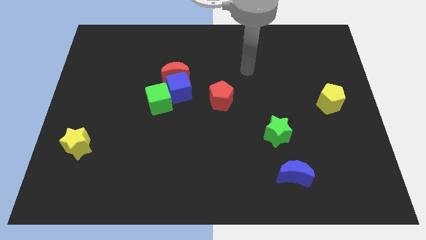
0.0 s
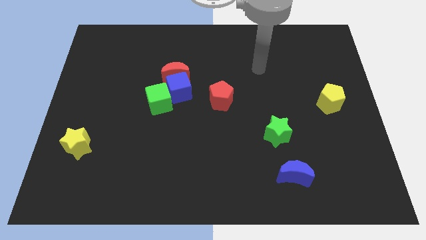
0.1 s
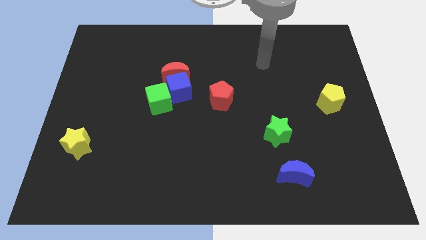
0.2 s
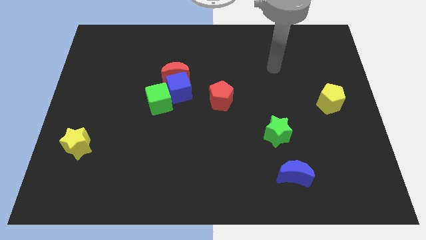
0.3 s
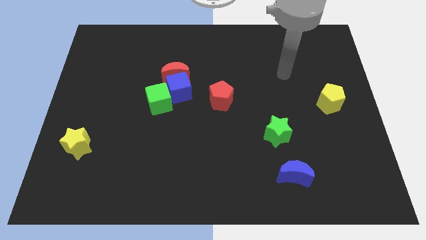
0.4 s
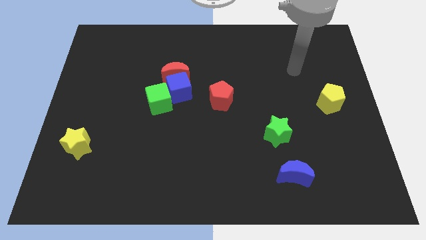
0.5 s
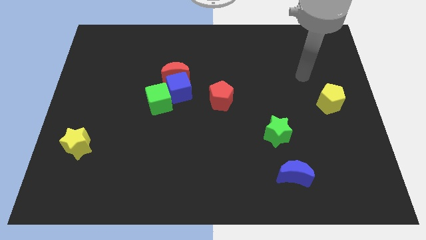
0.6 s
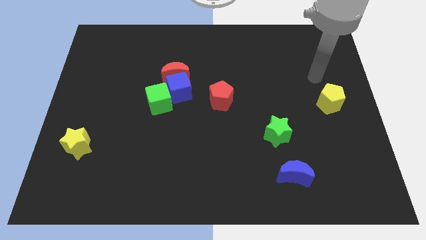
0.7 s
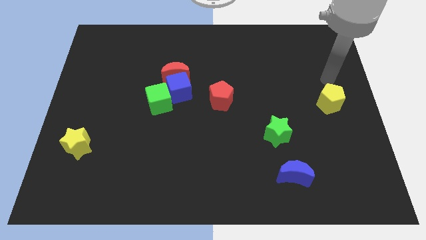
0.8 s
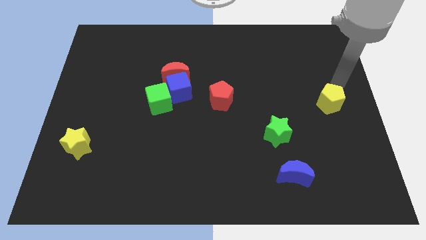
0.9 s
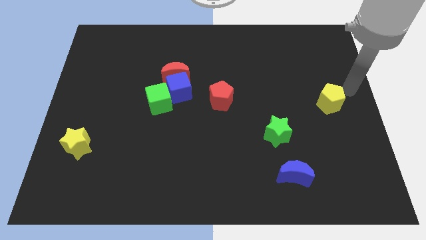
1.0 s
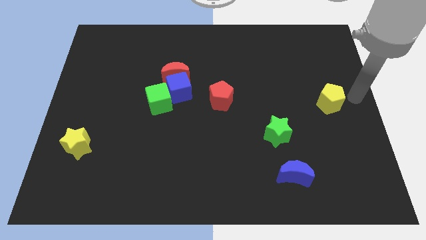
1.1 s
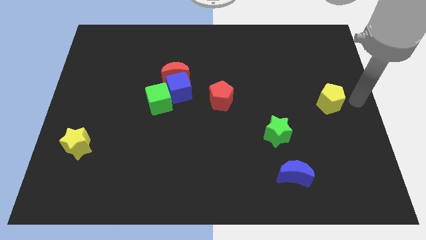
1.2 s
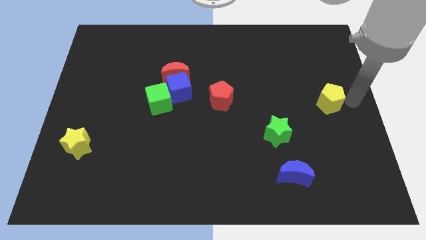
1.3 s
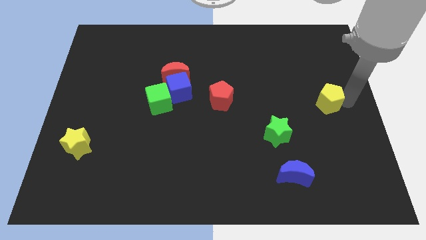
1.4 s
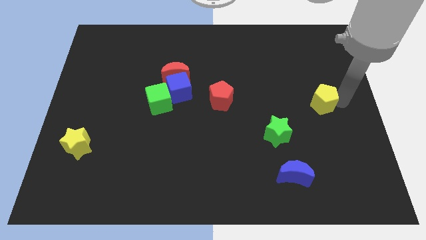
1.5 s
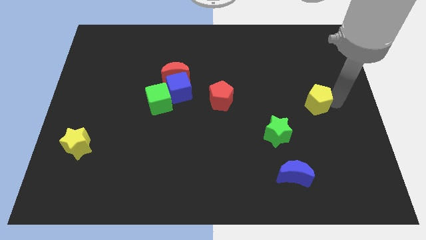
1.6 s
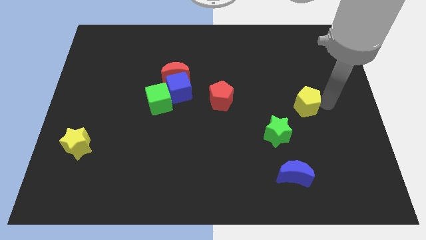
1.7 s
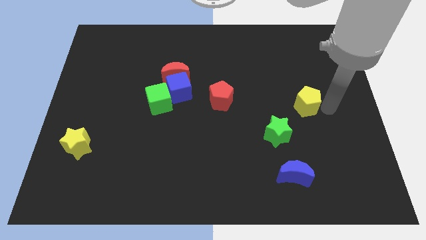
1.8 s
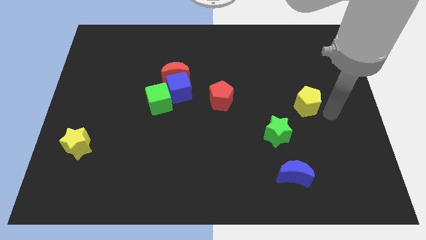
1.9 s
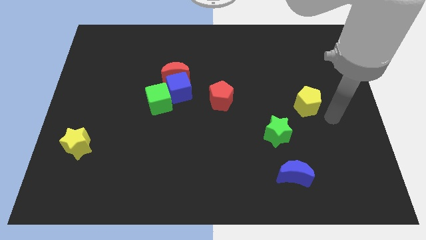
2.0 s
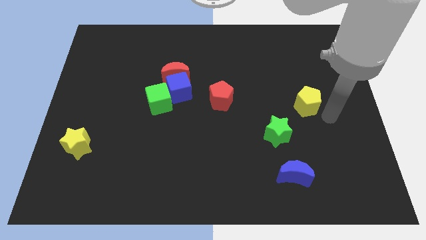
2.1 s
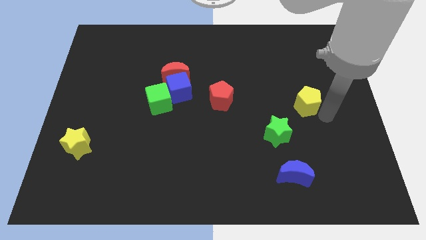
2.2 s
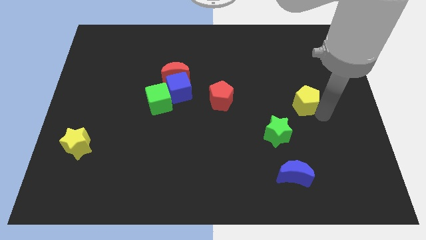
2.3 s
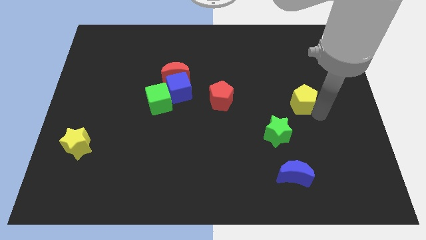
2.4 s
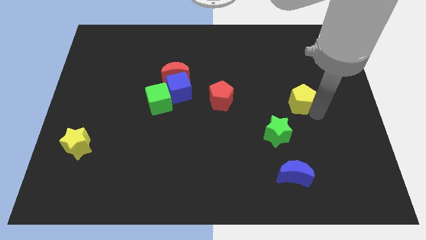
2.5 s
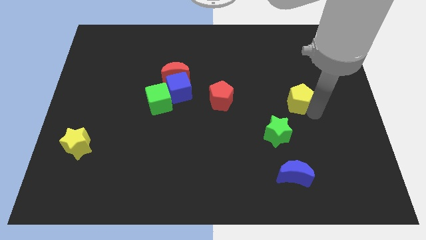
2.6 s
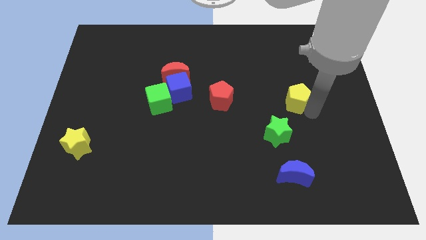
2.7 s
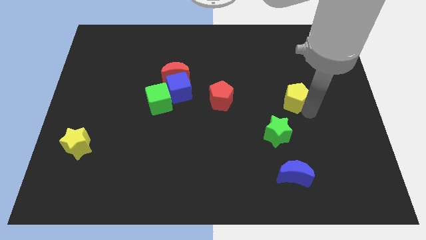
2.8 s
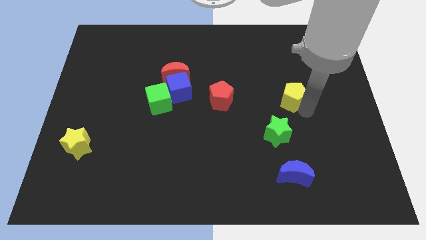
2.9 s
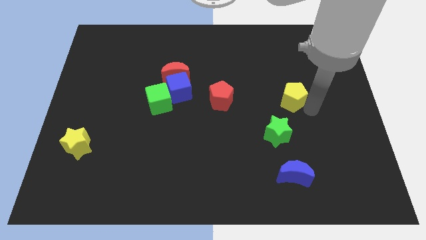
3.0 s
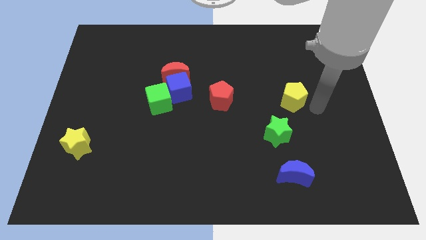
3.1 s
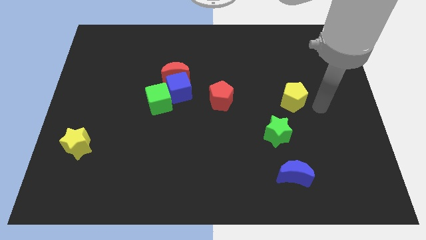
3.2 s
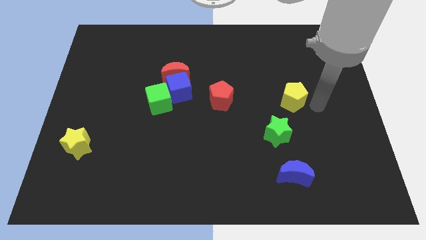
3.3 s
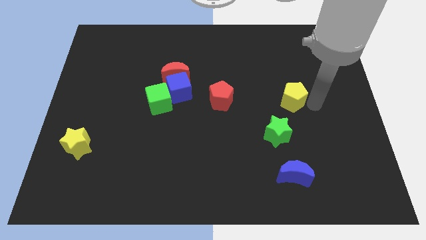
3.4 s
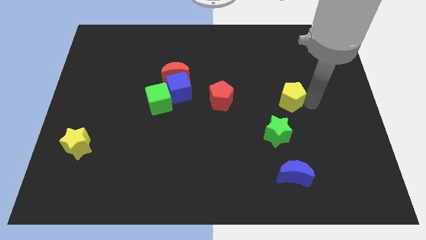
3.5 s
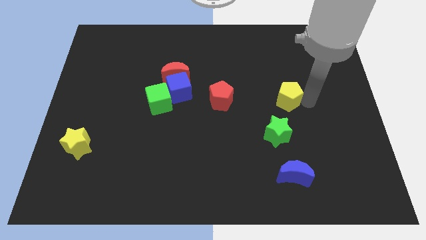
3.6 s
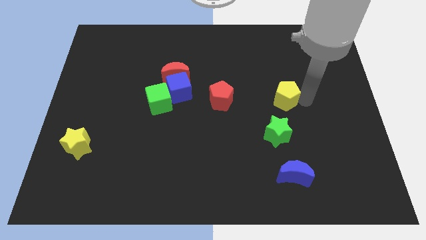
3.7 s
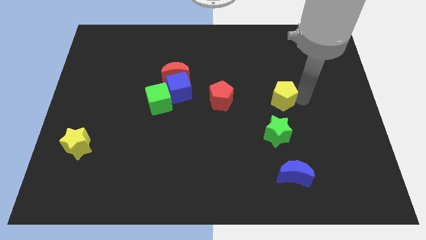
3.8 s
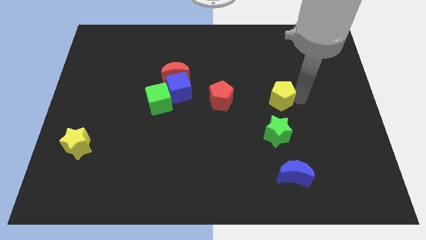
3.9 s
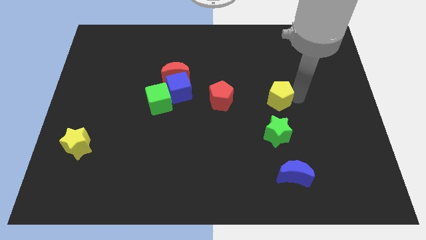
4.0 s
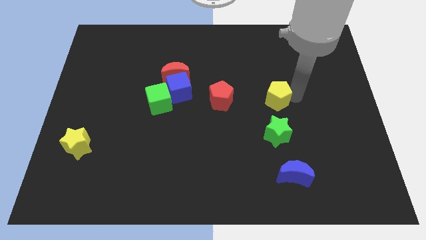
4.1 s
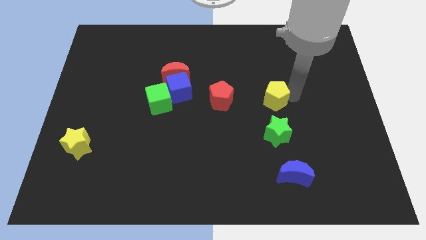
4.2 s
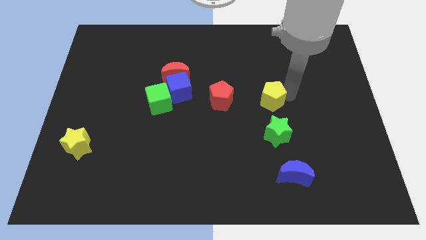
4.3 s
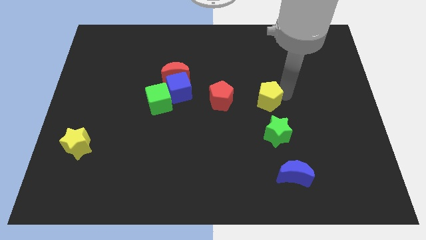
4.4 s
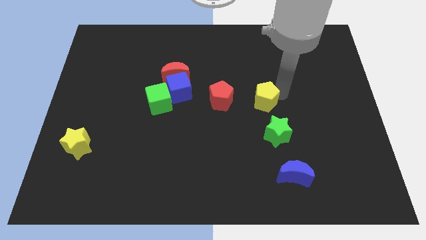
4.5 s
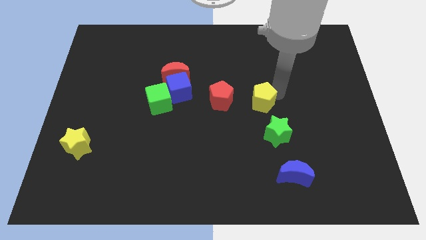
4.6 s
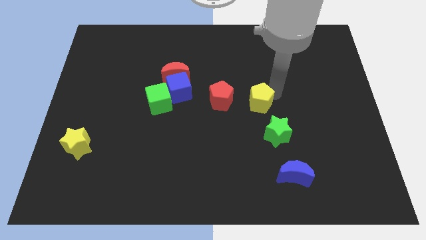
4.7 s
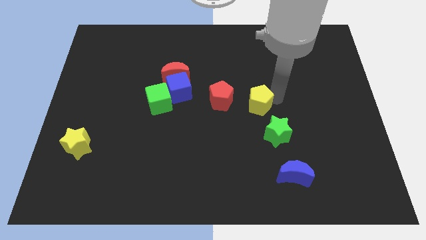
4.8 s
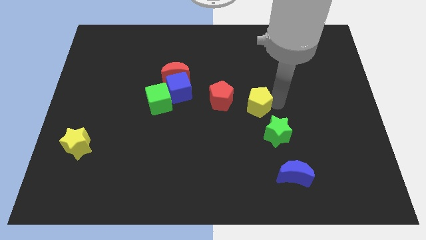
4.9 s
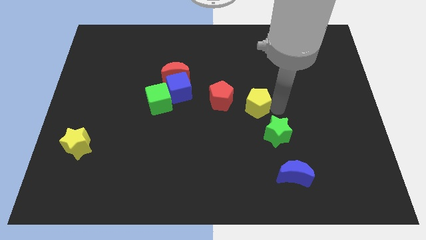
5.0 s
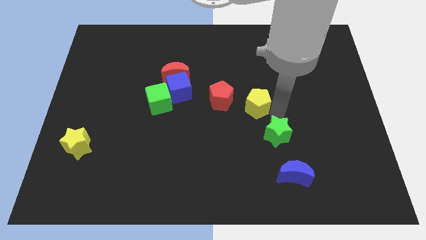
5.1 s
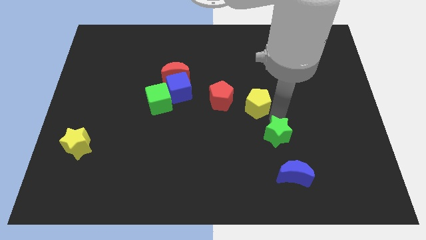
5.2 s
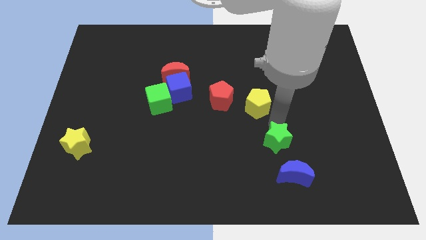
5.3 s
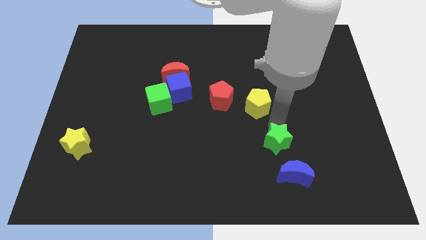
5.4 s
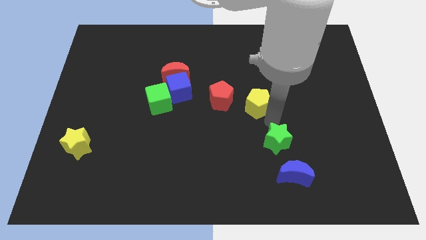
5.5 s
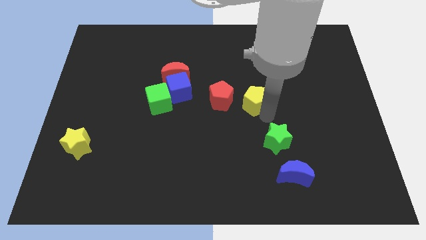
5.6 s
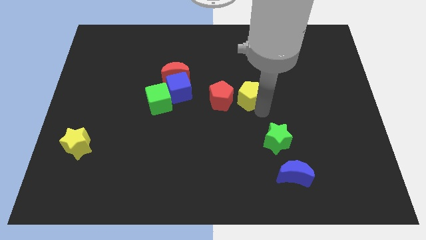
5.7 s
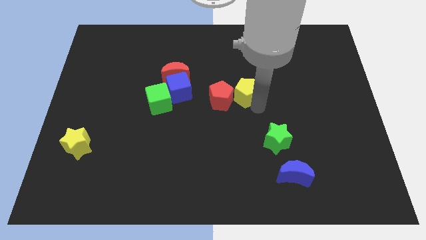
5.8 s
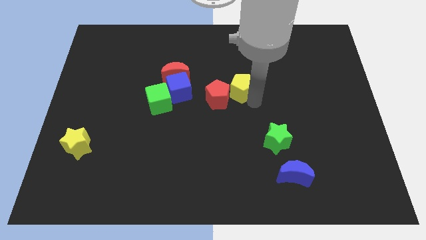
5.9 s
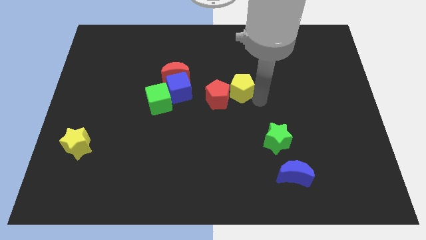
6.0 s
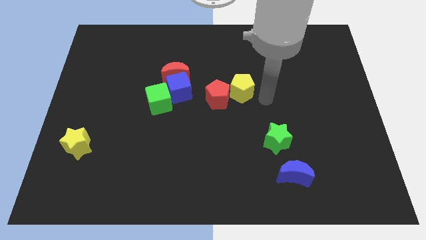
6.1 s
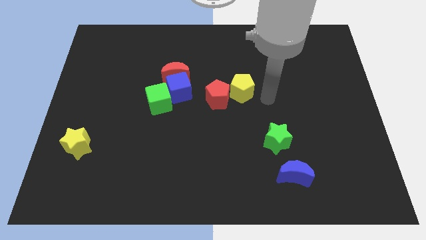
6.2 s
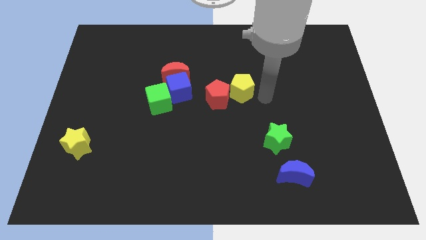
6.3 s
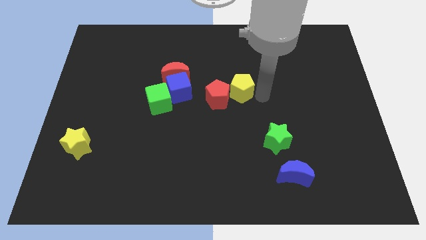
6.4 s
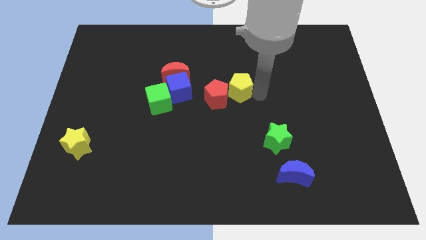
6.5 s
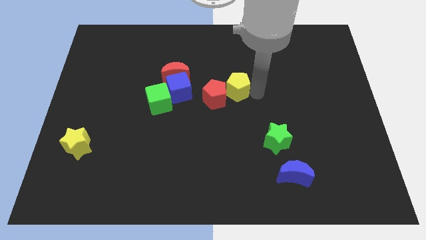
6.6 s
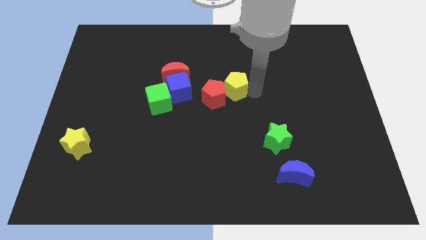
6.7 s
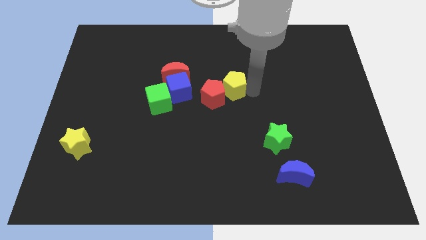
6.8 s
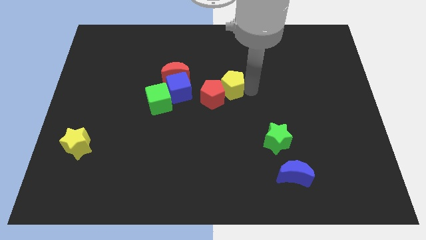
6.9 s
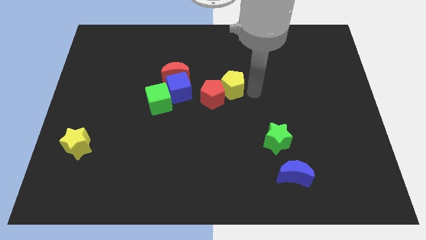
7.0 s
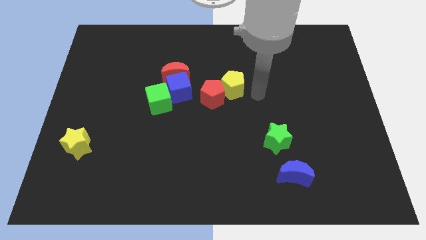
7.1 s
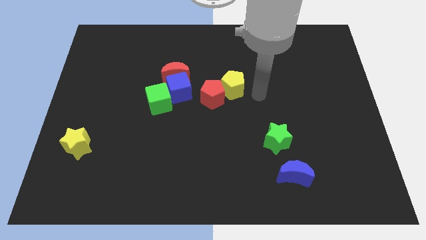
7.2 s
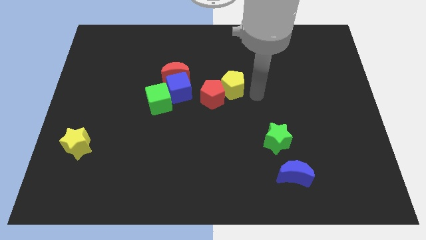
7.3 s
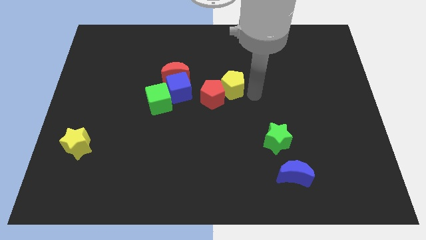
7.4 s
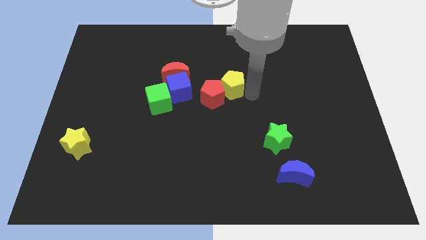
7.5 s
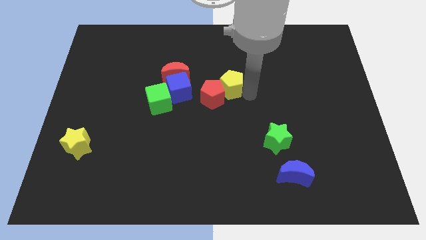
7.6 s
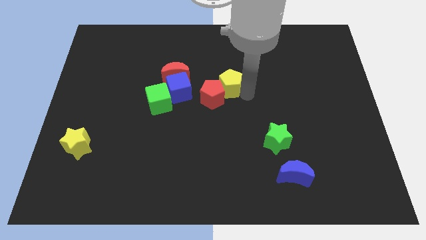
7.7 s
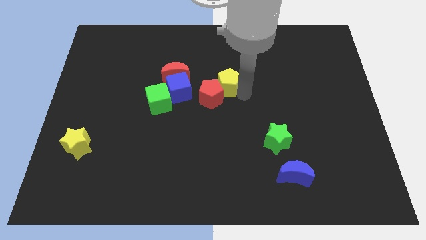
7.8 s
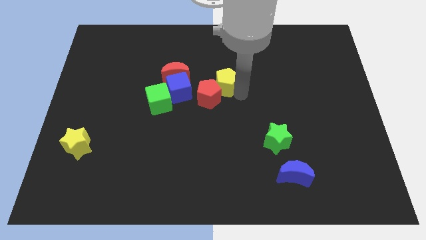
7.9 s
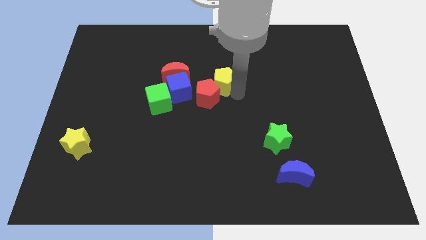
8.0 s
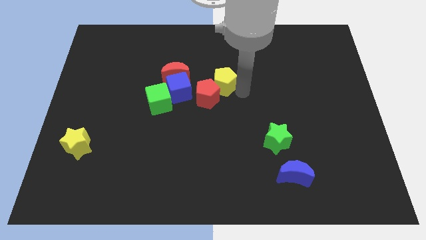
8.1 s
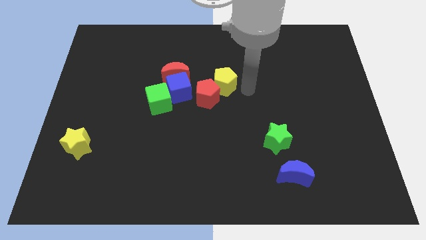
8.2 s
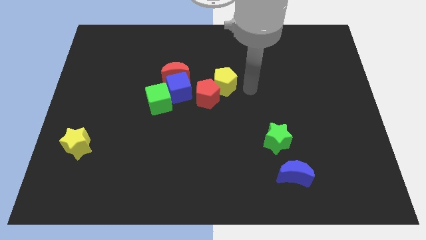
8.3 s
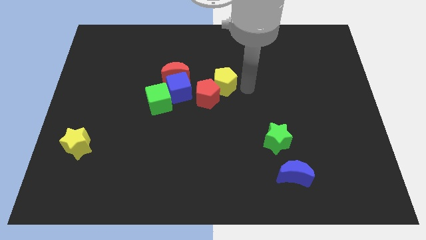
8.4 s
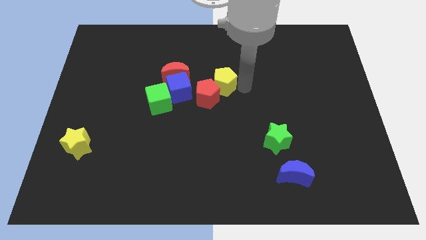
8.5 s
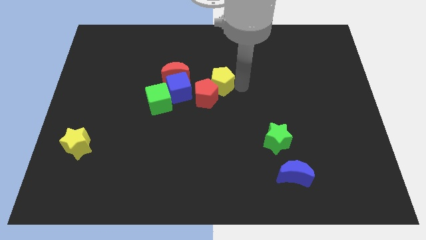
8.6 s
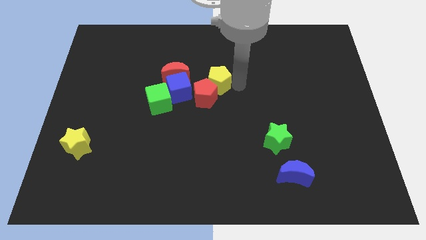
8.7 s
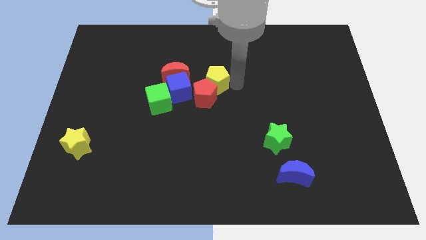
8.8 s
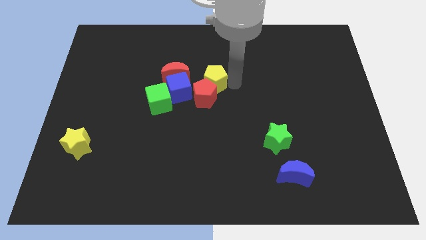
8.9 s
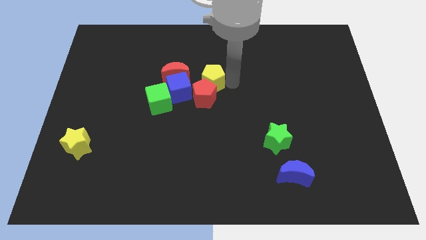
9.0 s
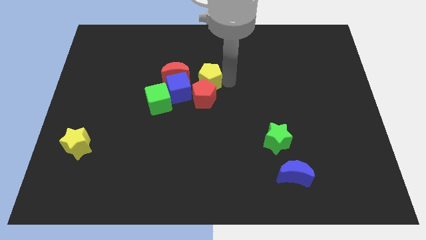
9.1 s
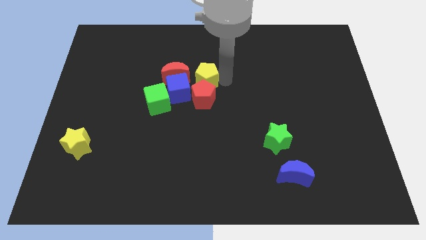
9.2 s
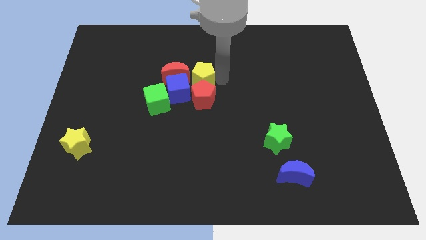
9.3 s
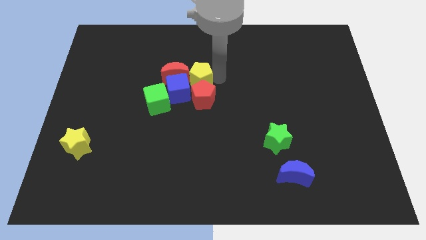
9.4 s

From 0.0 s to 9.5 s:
move the yellow pentagon next to the red moon
